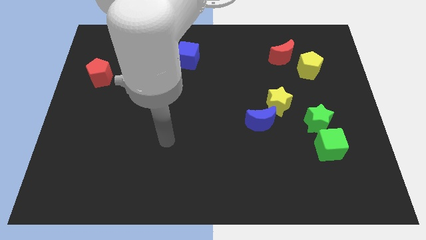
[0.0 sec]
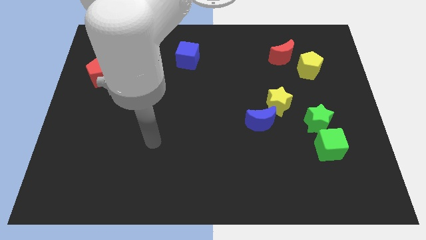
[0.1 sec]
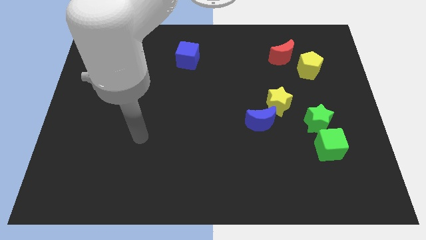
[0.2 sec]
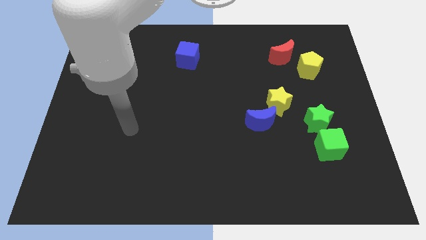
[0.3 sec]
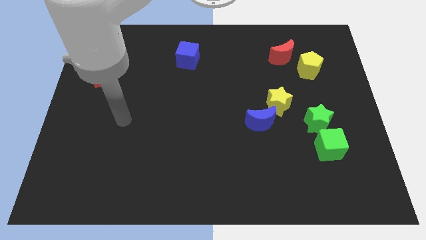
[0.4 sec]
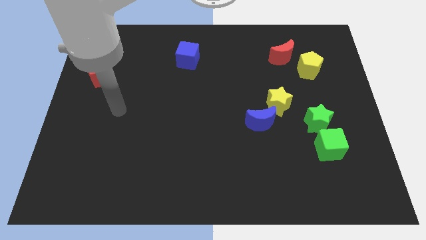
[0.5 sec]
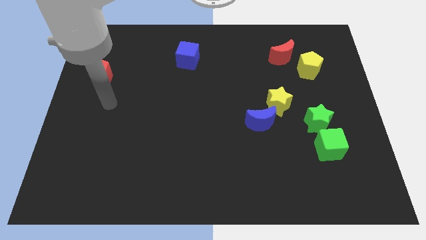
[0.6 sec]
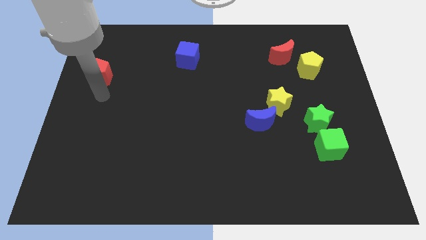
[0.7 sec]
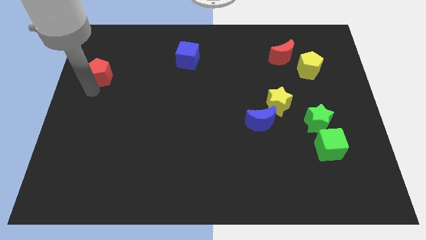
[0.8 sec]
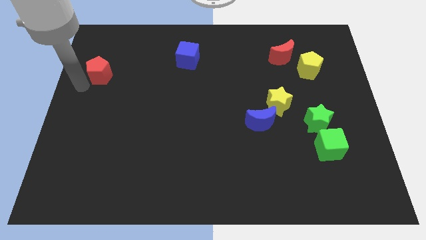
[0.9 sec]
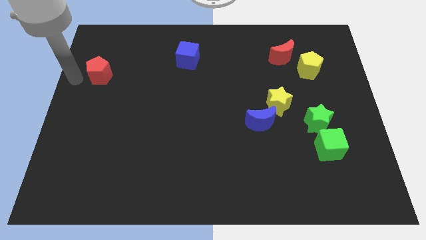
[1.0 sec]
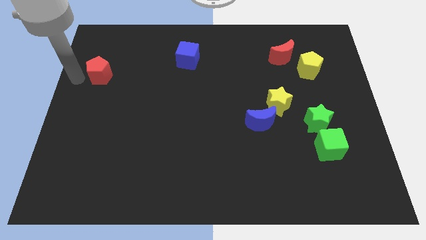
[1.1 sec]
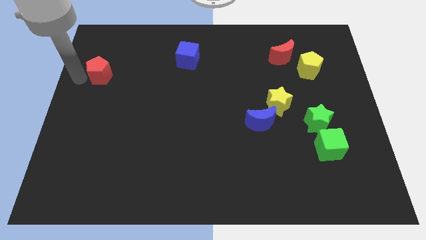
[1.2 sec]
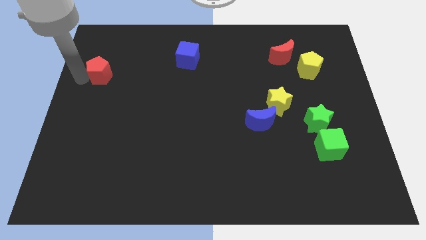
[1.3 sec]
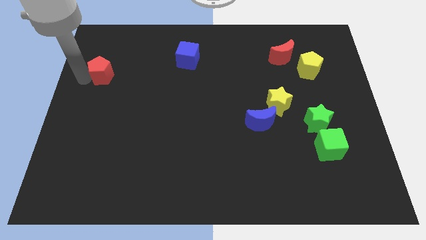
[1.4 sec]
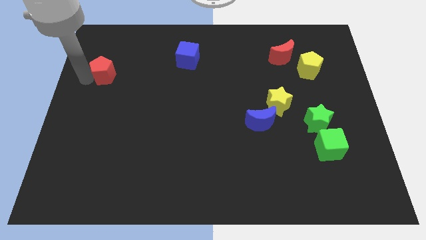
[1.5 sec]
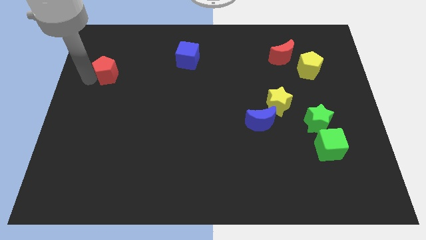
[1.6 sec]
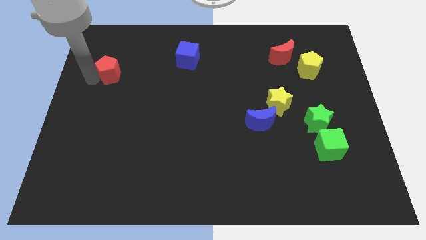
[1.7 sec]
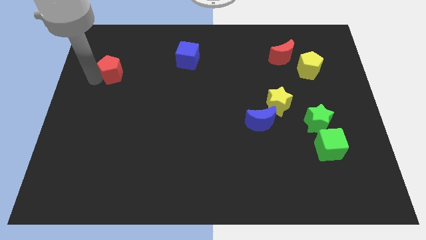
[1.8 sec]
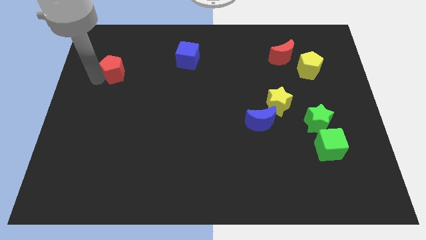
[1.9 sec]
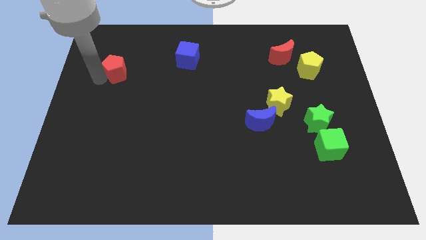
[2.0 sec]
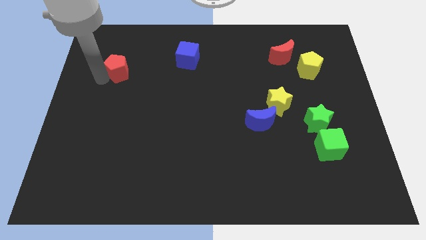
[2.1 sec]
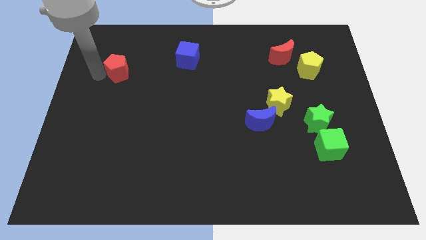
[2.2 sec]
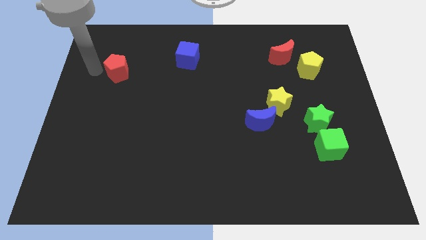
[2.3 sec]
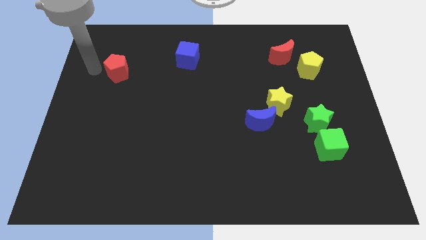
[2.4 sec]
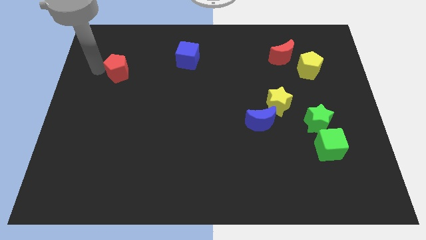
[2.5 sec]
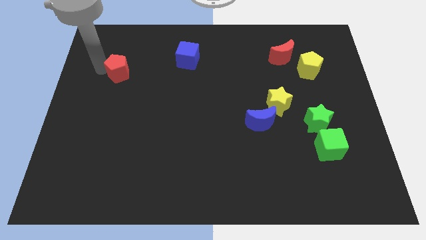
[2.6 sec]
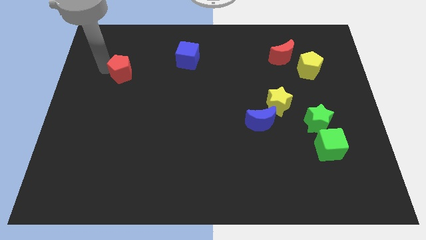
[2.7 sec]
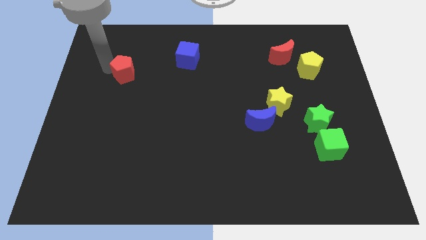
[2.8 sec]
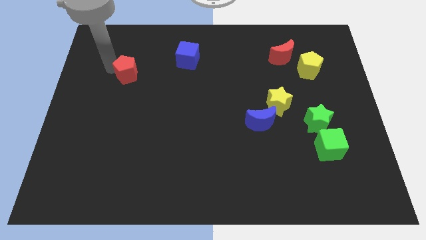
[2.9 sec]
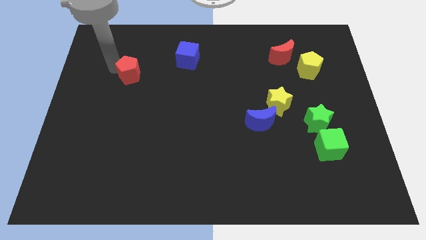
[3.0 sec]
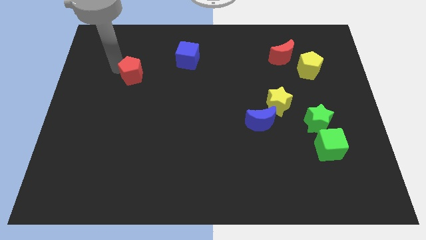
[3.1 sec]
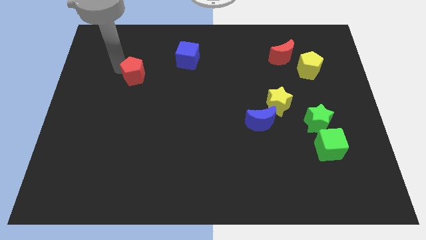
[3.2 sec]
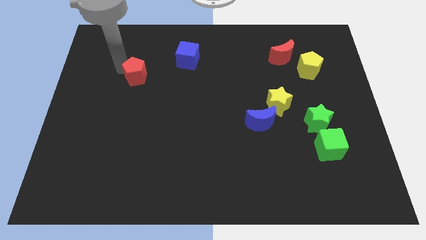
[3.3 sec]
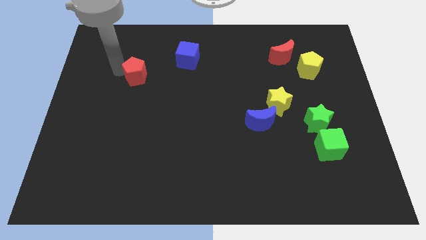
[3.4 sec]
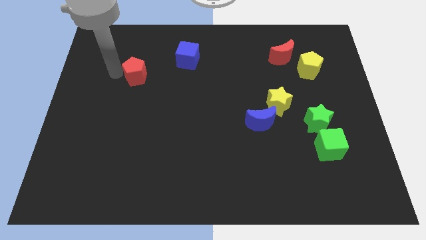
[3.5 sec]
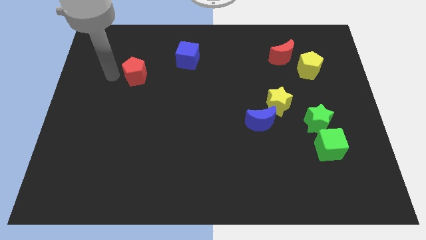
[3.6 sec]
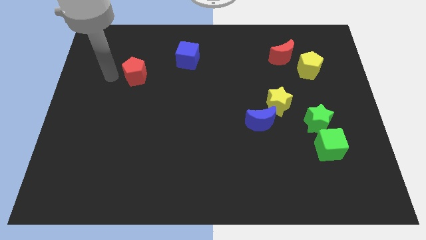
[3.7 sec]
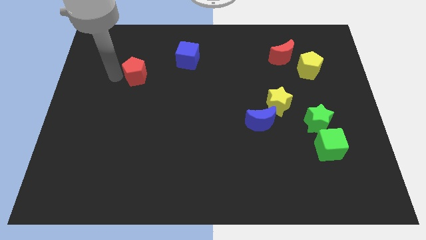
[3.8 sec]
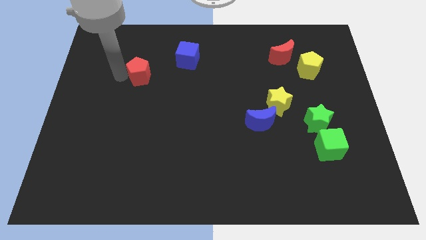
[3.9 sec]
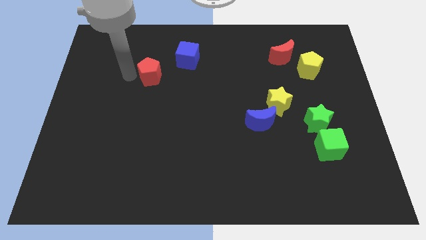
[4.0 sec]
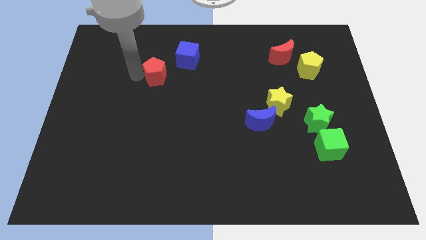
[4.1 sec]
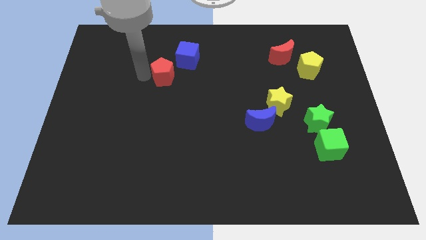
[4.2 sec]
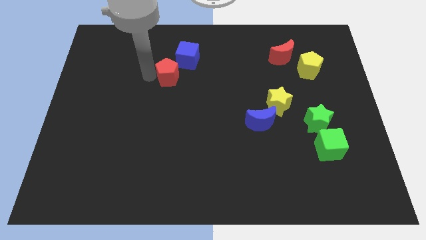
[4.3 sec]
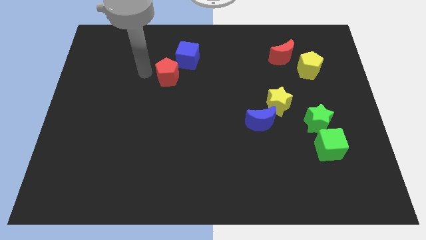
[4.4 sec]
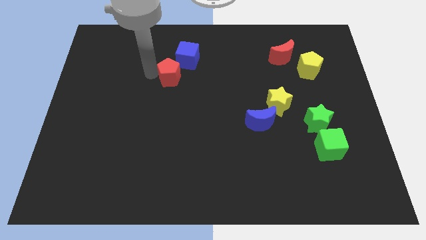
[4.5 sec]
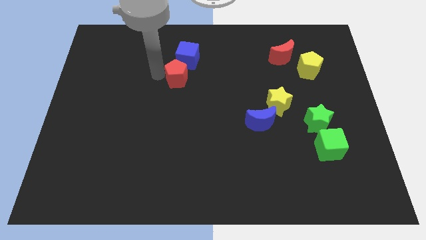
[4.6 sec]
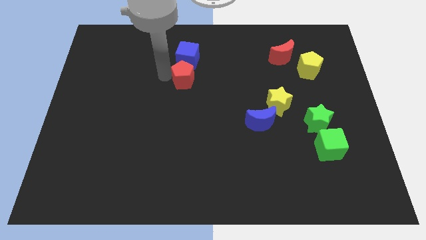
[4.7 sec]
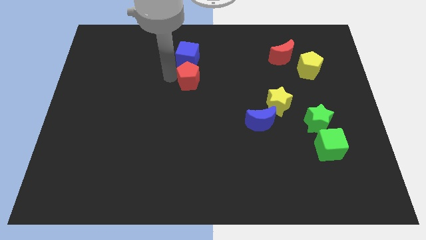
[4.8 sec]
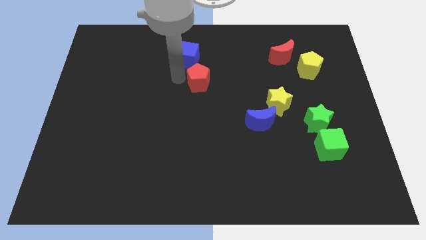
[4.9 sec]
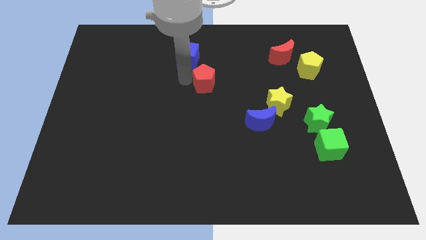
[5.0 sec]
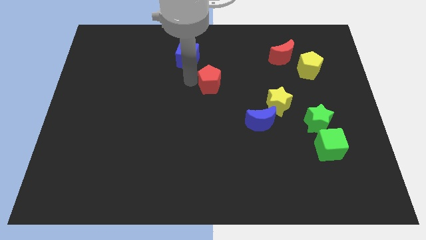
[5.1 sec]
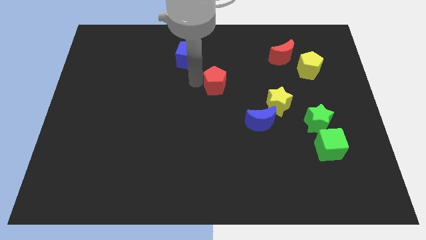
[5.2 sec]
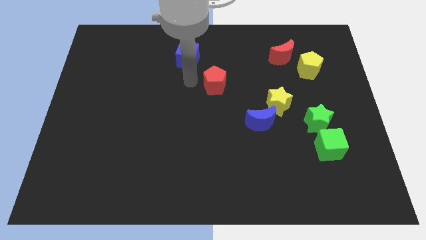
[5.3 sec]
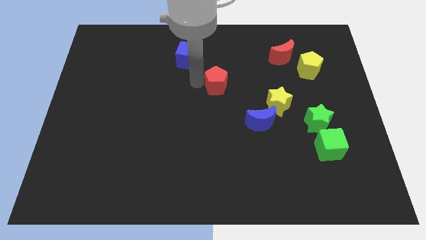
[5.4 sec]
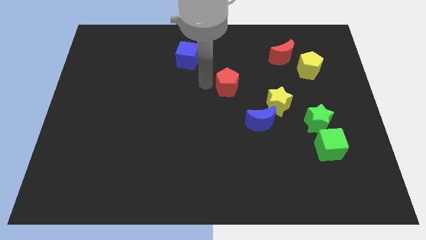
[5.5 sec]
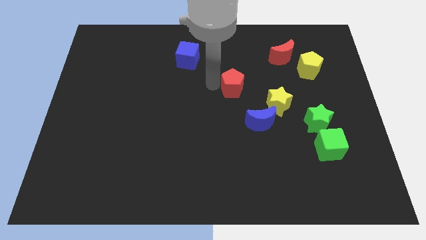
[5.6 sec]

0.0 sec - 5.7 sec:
push the red pentagon to the top left side of the yellow star

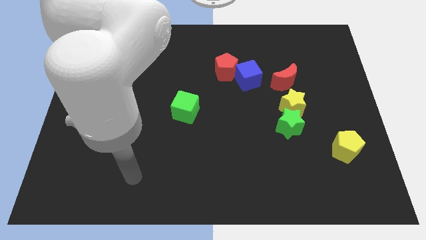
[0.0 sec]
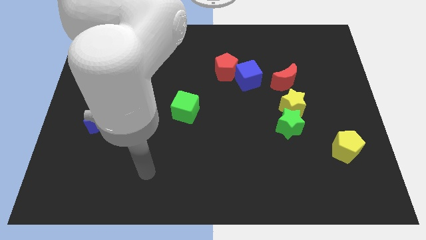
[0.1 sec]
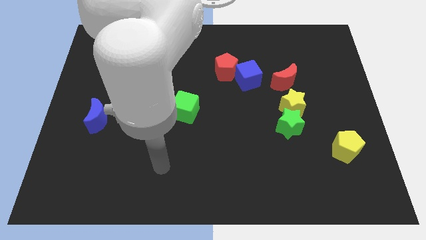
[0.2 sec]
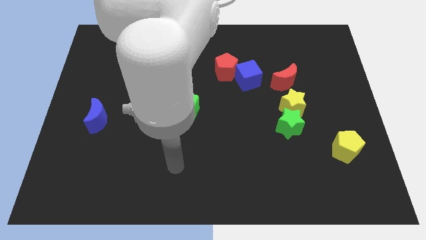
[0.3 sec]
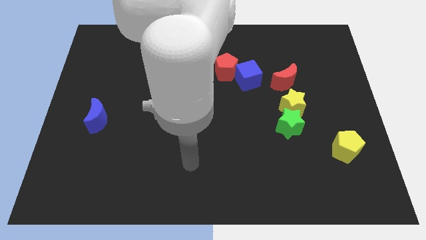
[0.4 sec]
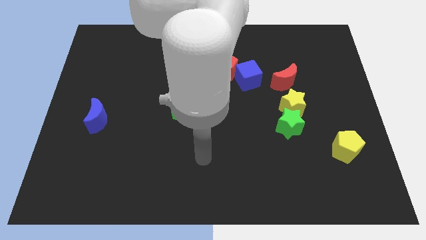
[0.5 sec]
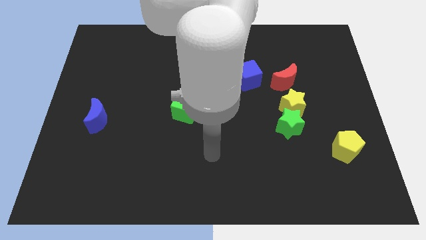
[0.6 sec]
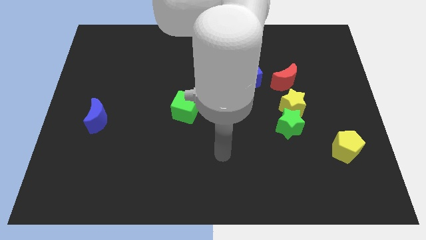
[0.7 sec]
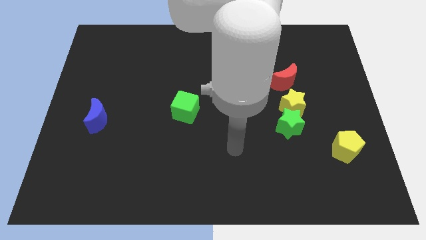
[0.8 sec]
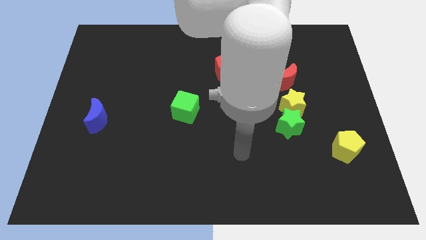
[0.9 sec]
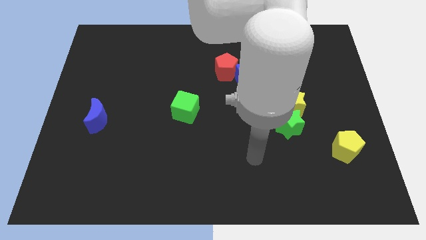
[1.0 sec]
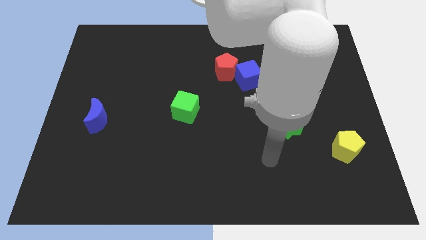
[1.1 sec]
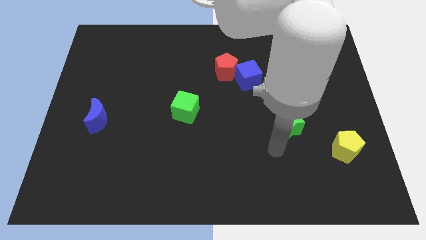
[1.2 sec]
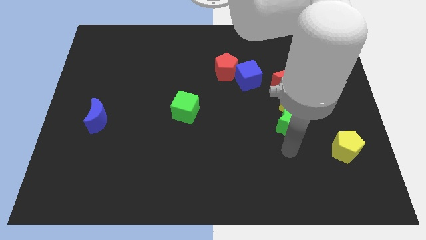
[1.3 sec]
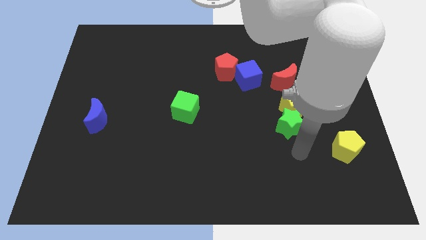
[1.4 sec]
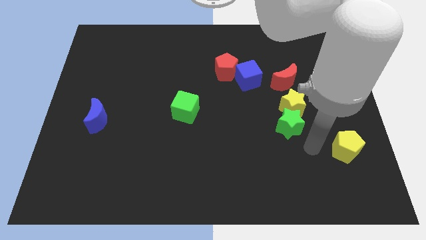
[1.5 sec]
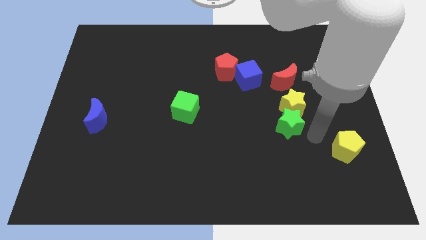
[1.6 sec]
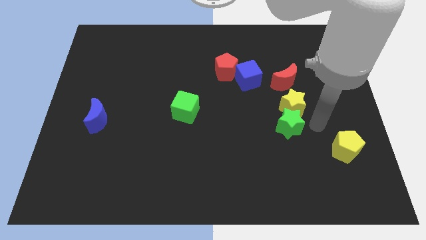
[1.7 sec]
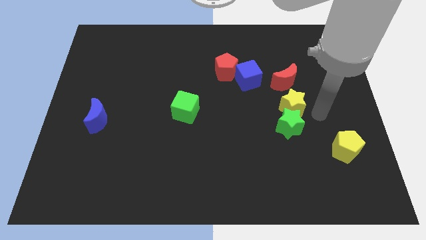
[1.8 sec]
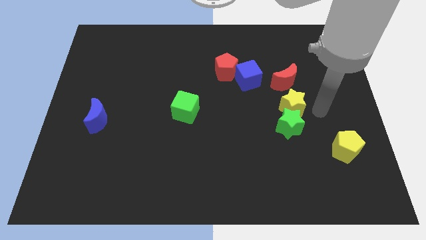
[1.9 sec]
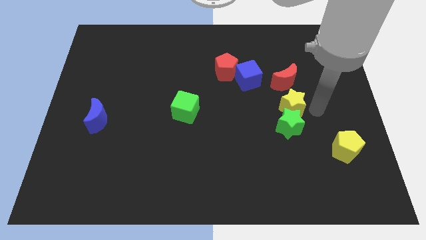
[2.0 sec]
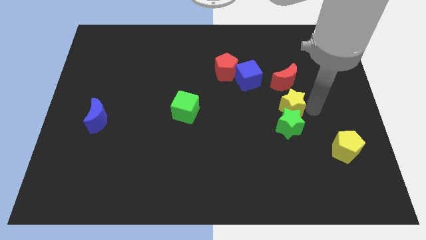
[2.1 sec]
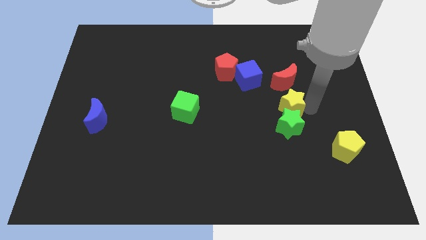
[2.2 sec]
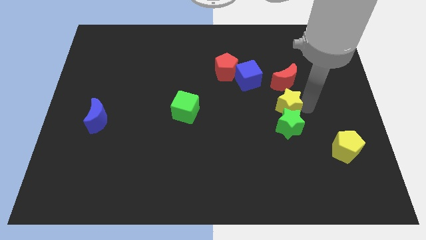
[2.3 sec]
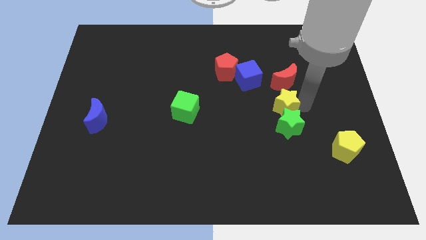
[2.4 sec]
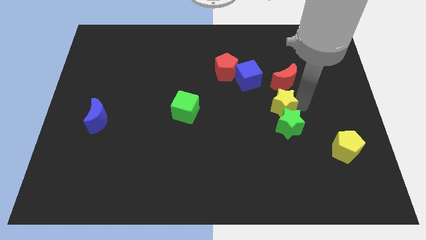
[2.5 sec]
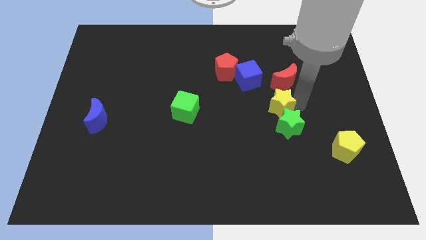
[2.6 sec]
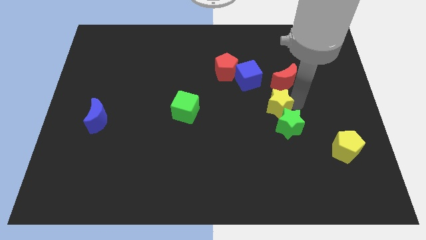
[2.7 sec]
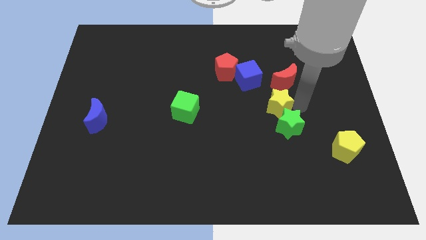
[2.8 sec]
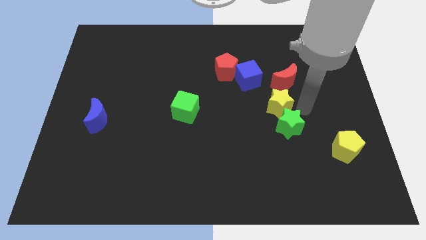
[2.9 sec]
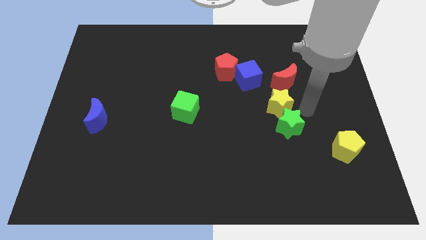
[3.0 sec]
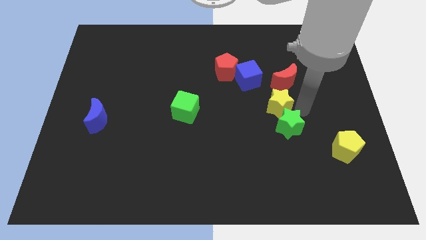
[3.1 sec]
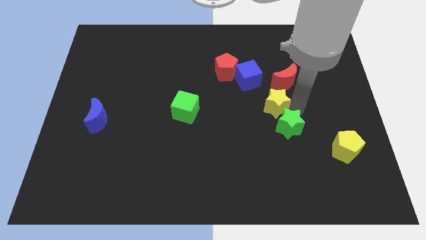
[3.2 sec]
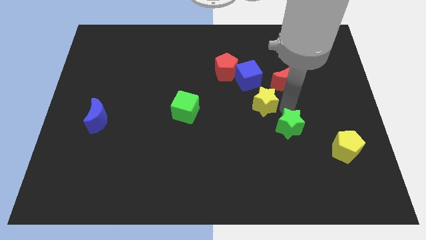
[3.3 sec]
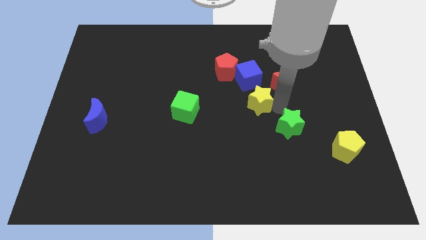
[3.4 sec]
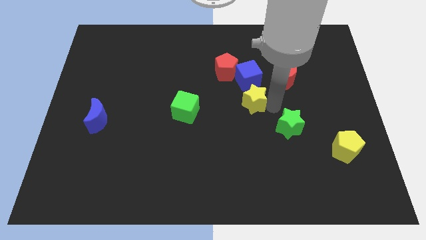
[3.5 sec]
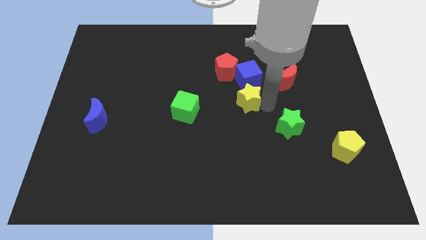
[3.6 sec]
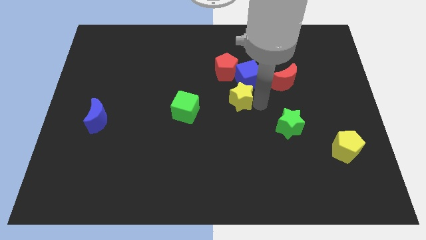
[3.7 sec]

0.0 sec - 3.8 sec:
put the yellow star to the bottom side of the red pentagon
